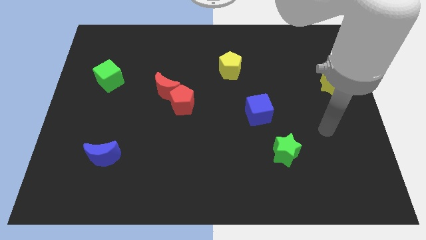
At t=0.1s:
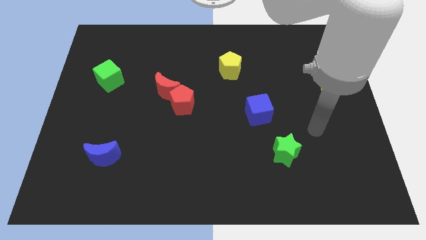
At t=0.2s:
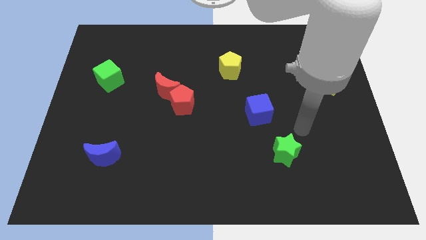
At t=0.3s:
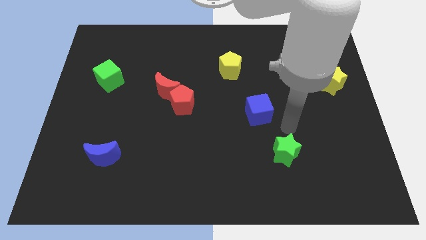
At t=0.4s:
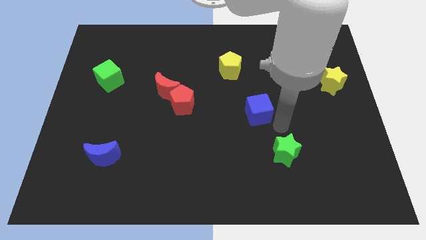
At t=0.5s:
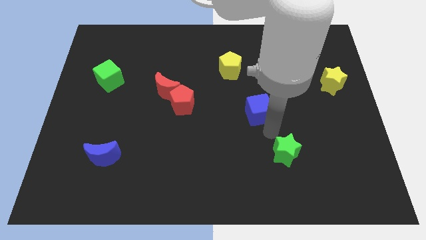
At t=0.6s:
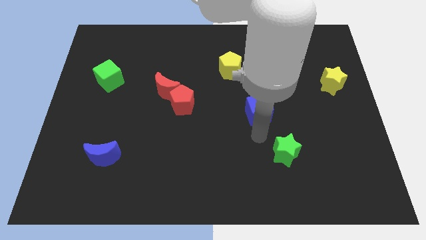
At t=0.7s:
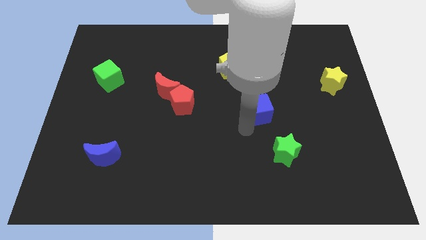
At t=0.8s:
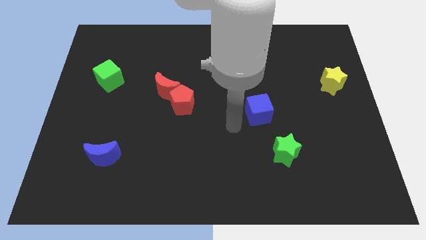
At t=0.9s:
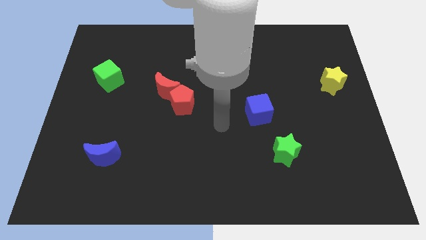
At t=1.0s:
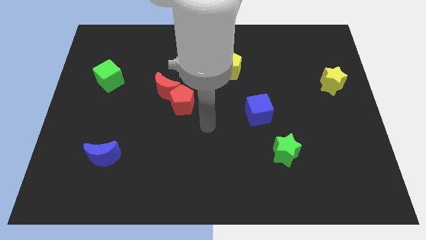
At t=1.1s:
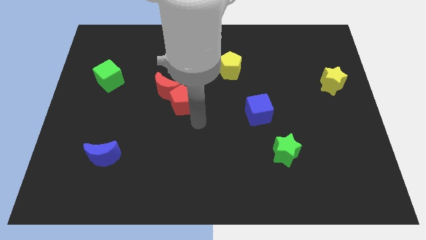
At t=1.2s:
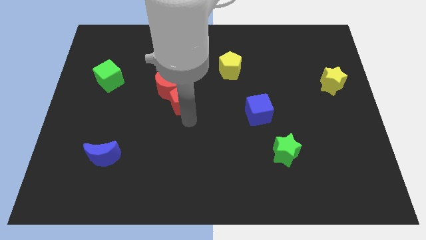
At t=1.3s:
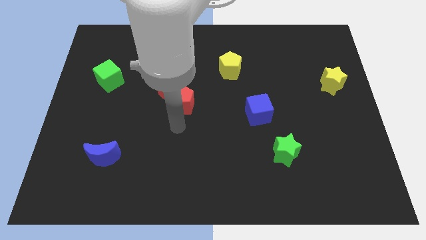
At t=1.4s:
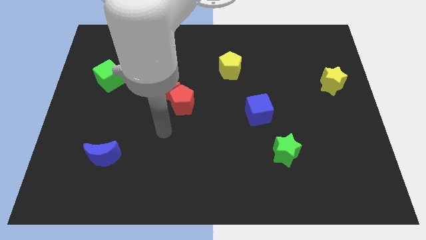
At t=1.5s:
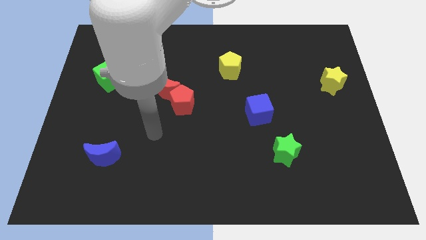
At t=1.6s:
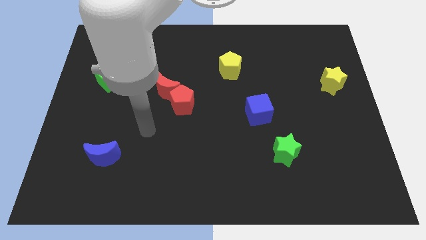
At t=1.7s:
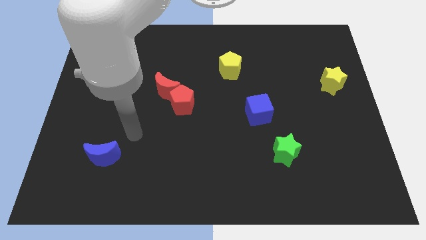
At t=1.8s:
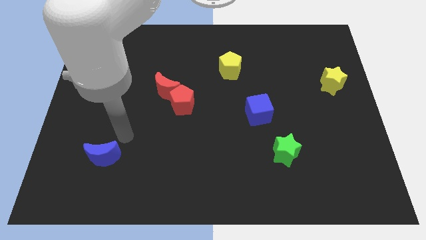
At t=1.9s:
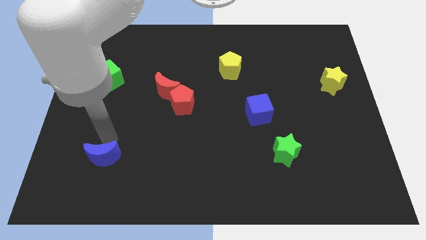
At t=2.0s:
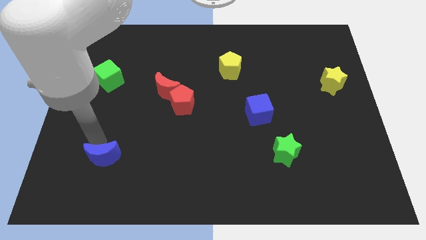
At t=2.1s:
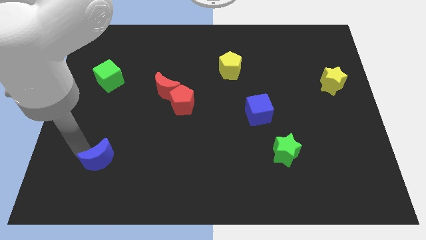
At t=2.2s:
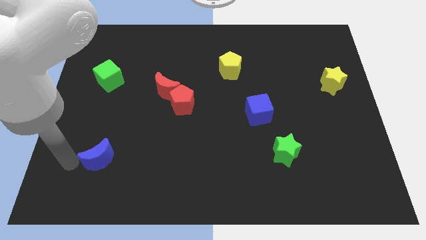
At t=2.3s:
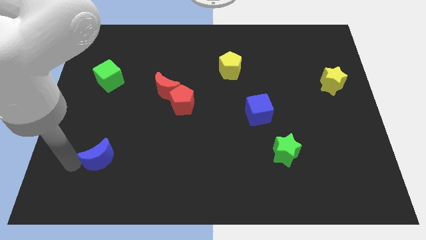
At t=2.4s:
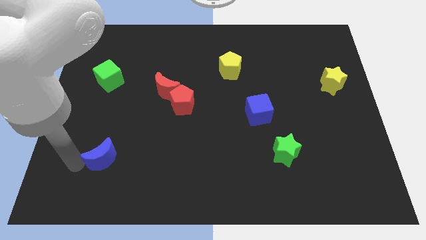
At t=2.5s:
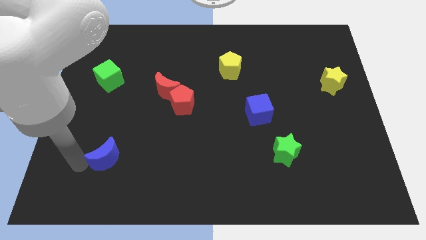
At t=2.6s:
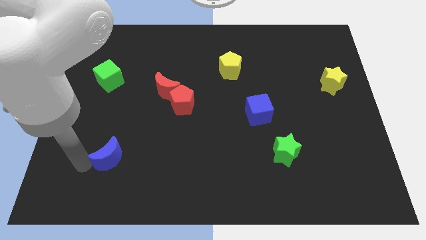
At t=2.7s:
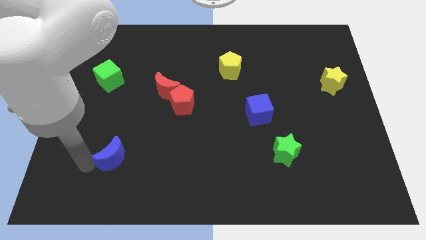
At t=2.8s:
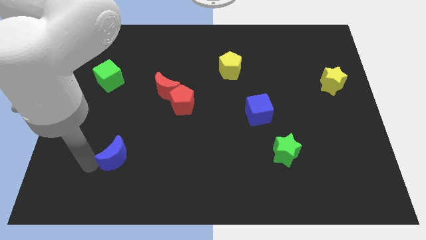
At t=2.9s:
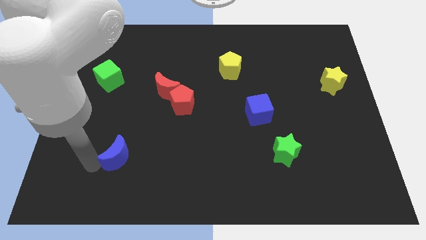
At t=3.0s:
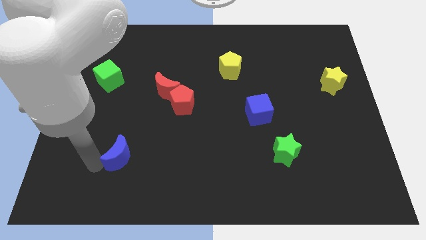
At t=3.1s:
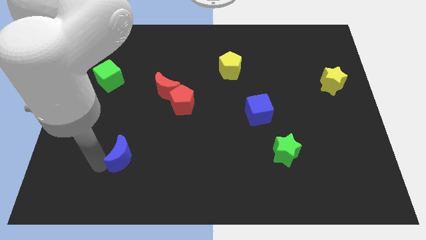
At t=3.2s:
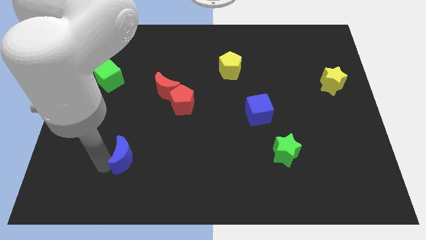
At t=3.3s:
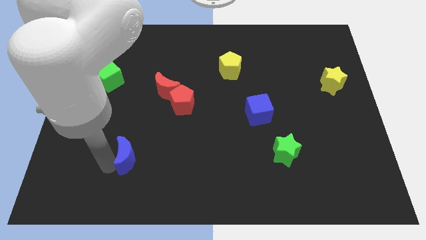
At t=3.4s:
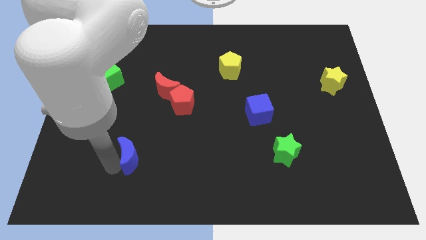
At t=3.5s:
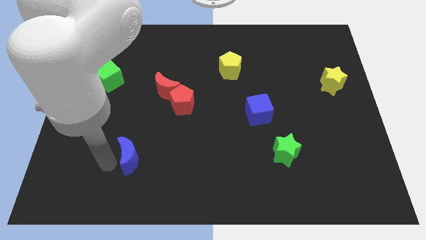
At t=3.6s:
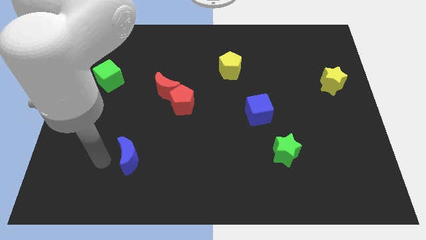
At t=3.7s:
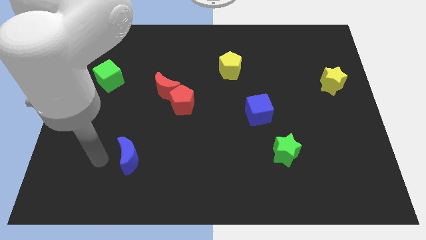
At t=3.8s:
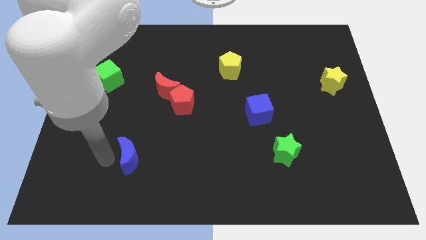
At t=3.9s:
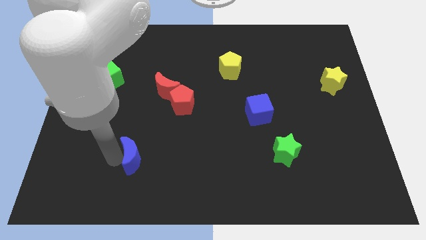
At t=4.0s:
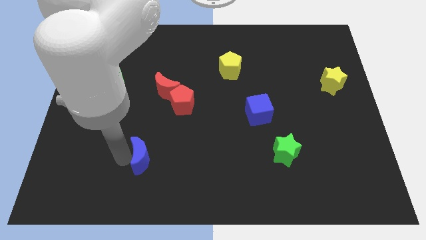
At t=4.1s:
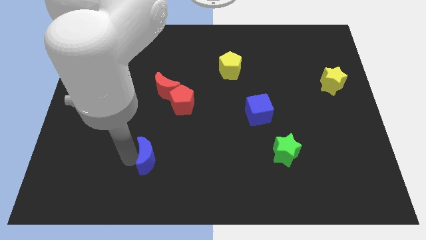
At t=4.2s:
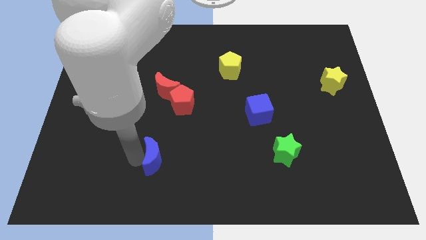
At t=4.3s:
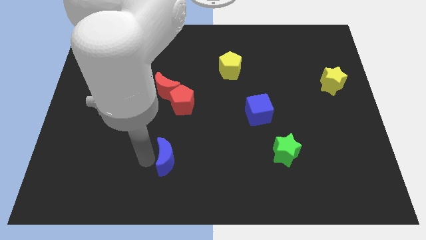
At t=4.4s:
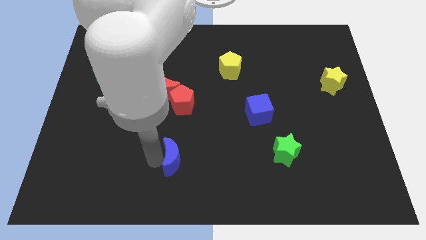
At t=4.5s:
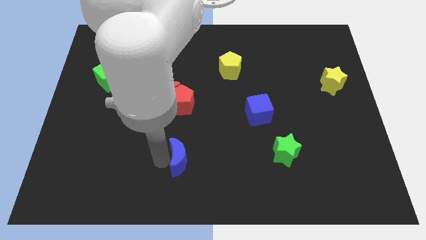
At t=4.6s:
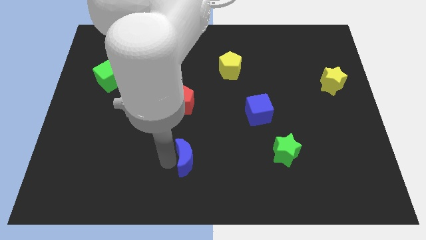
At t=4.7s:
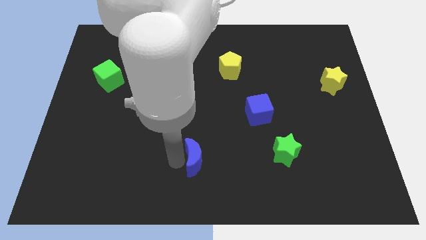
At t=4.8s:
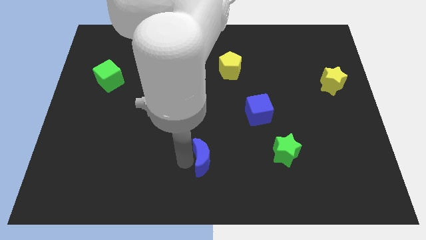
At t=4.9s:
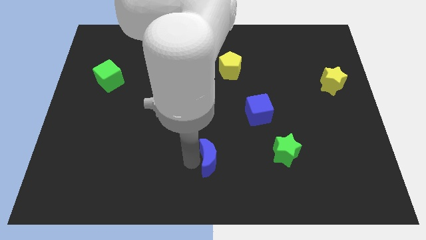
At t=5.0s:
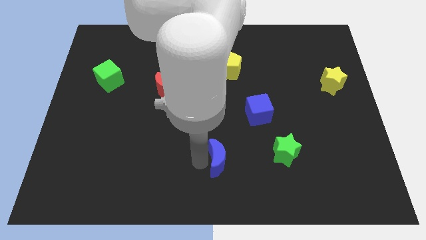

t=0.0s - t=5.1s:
move the blue moon just left of the green star

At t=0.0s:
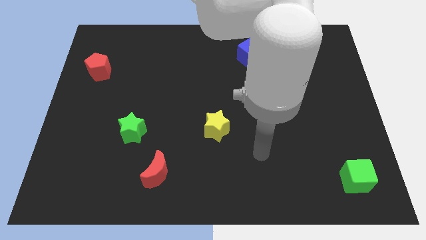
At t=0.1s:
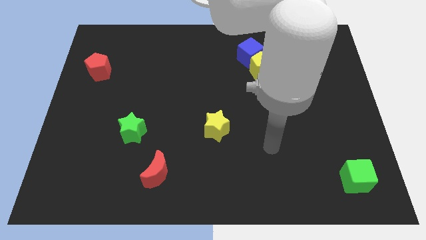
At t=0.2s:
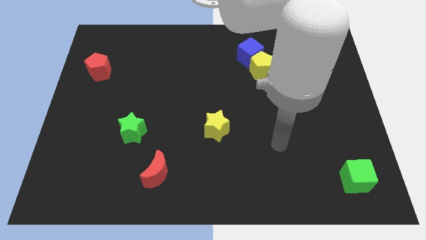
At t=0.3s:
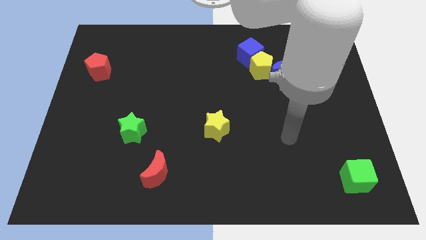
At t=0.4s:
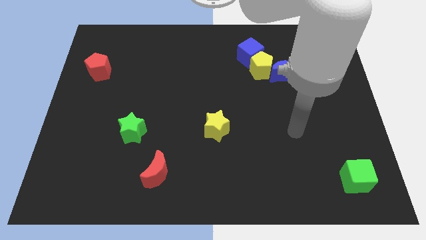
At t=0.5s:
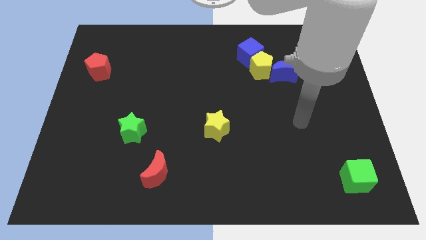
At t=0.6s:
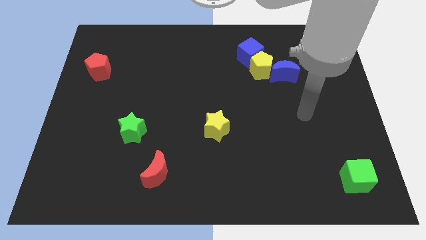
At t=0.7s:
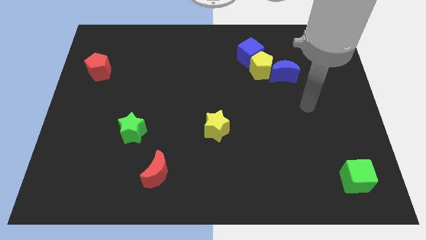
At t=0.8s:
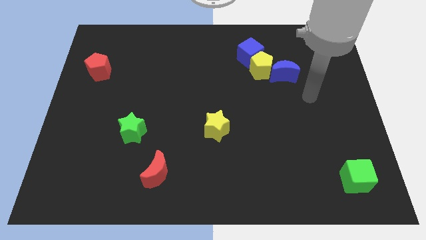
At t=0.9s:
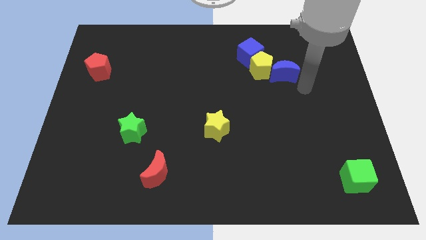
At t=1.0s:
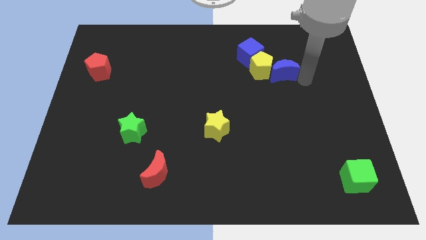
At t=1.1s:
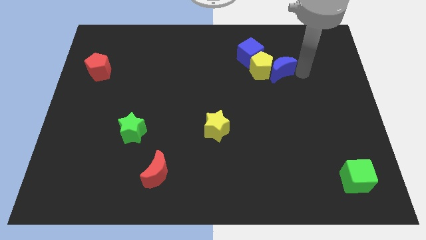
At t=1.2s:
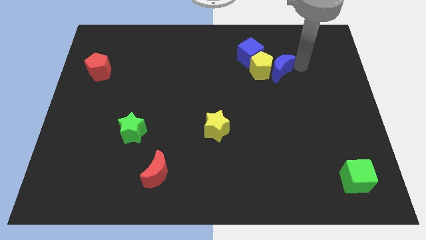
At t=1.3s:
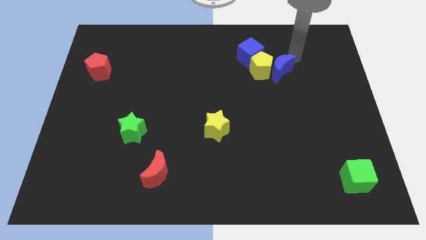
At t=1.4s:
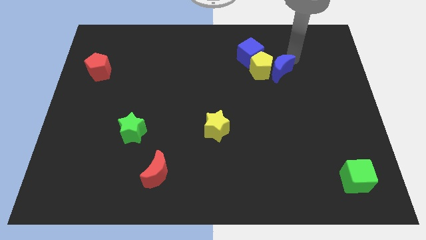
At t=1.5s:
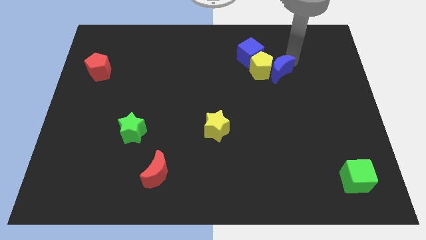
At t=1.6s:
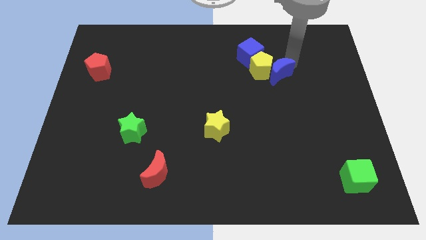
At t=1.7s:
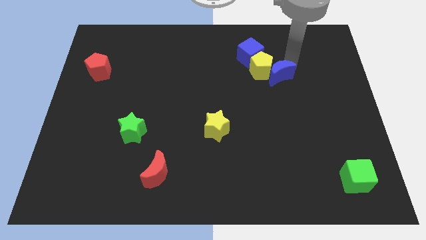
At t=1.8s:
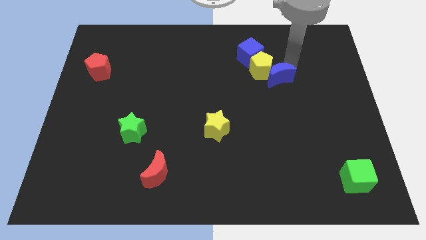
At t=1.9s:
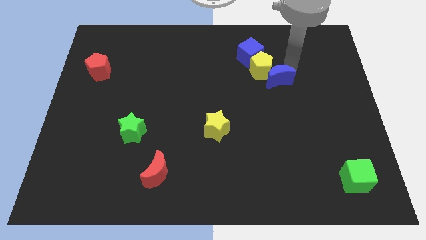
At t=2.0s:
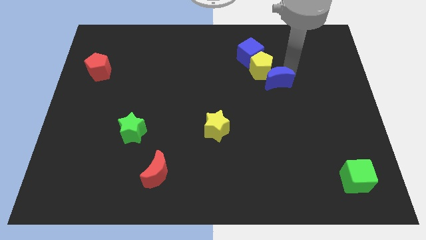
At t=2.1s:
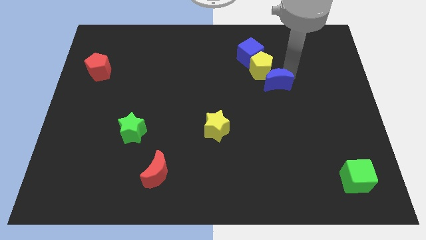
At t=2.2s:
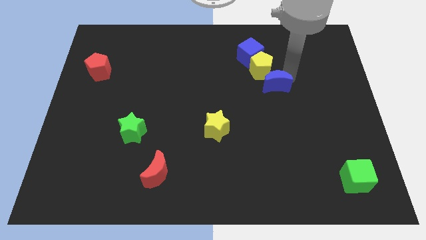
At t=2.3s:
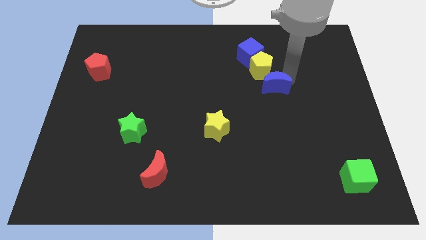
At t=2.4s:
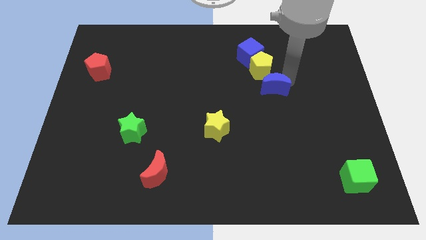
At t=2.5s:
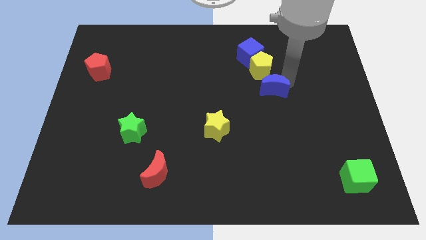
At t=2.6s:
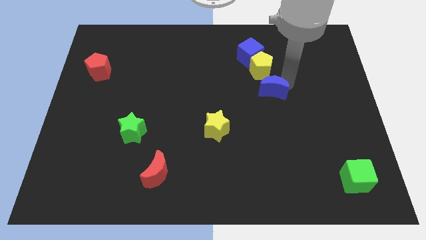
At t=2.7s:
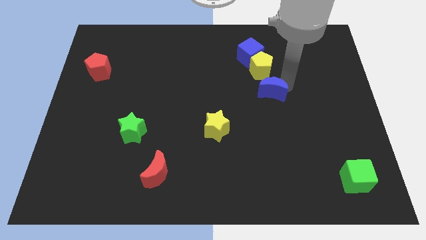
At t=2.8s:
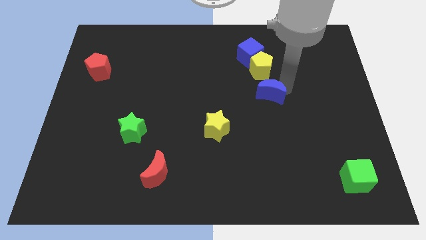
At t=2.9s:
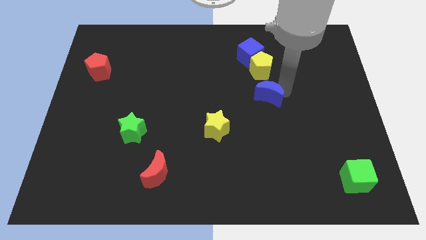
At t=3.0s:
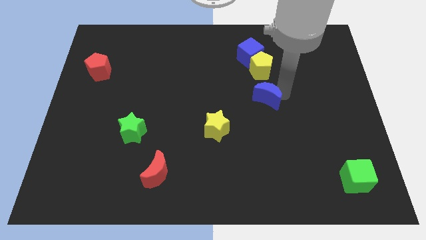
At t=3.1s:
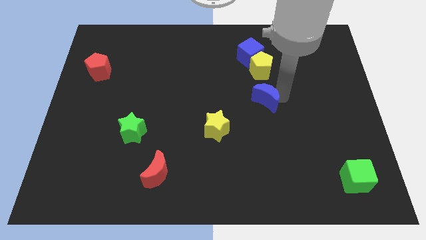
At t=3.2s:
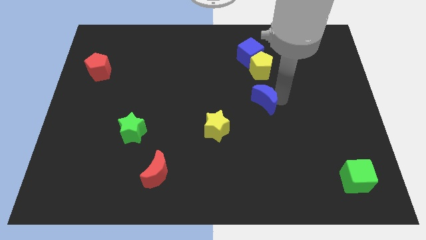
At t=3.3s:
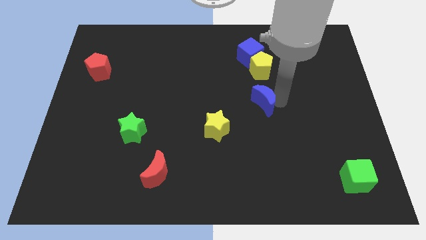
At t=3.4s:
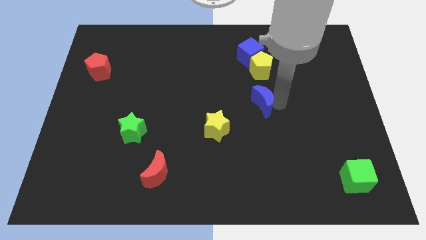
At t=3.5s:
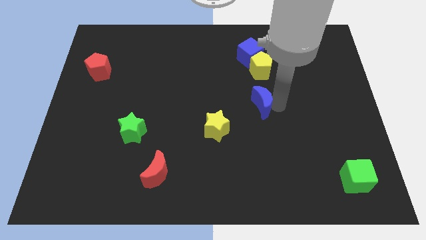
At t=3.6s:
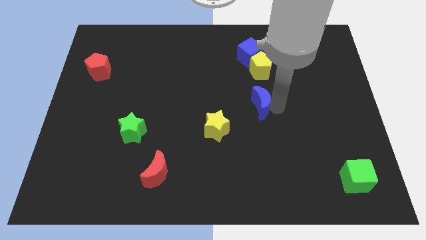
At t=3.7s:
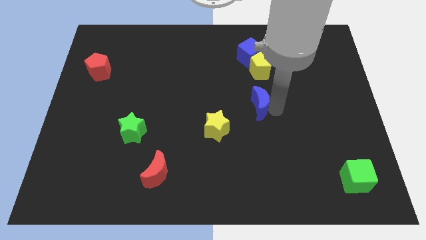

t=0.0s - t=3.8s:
move the blue moon to the top right of the yellow star
